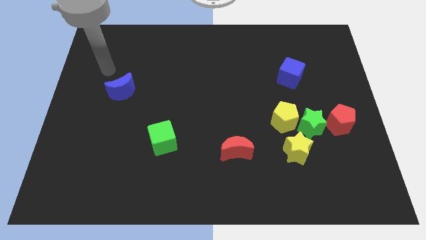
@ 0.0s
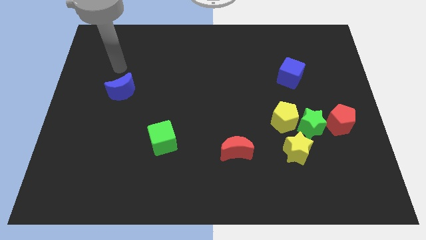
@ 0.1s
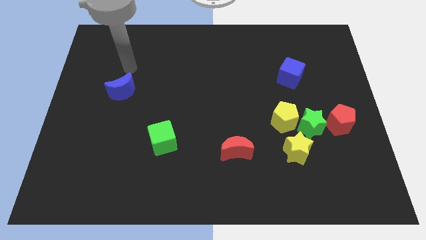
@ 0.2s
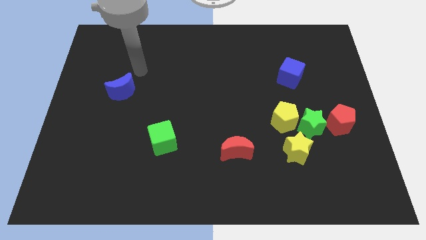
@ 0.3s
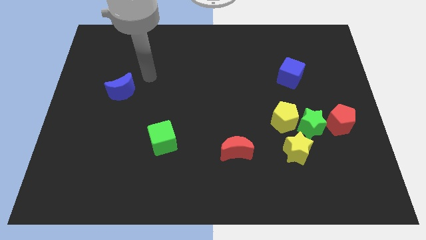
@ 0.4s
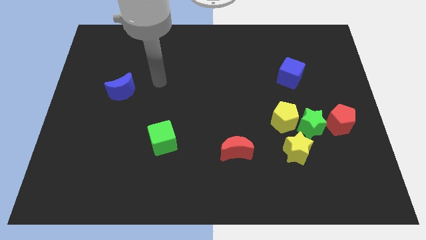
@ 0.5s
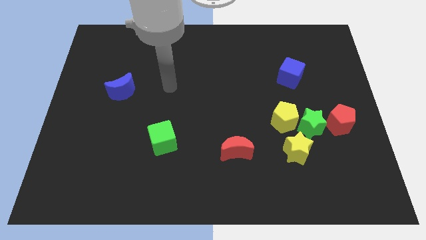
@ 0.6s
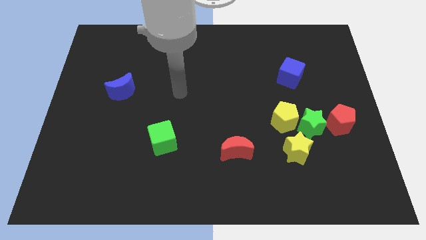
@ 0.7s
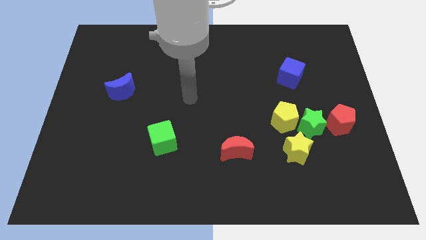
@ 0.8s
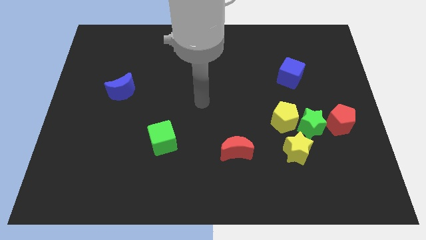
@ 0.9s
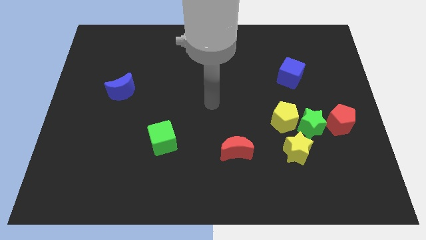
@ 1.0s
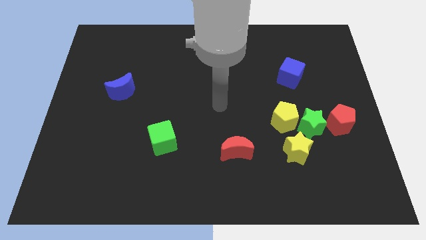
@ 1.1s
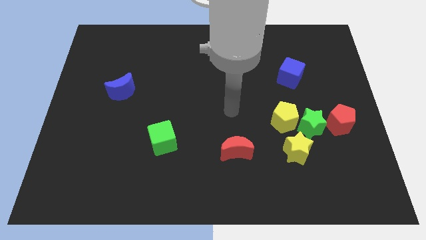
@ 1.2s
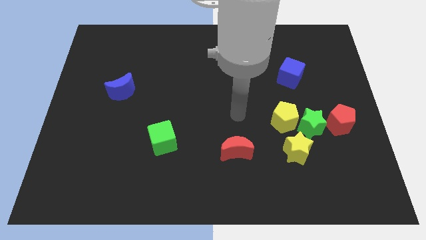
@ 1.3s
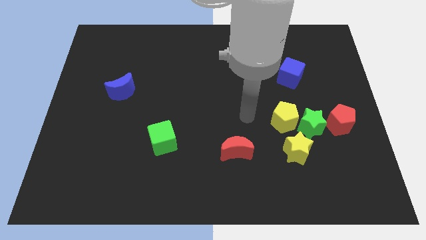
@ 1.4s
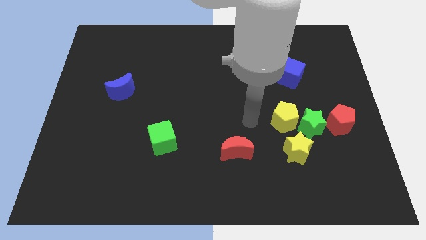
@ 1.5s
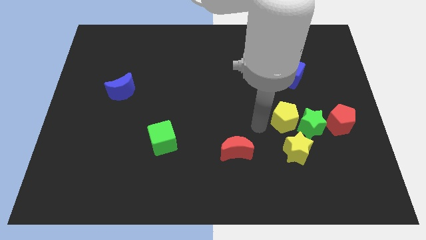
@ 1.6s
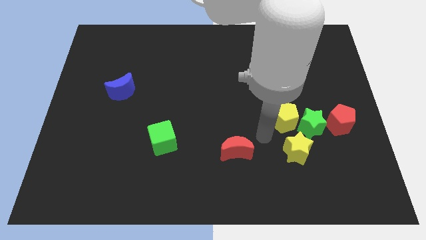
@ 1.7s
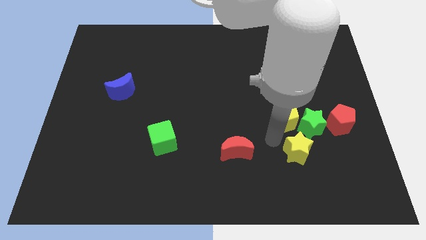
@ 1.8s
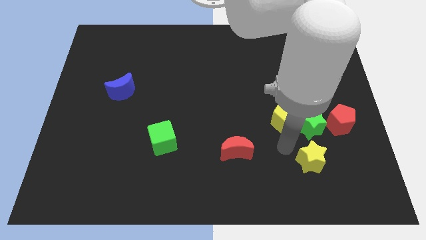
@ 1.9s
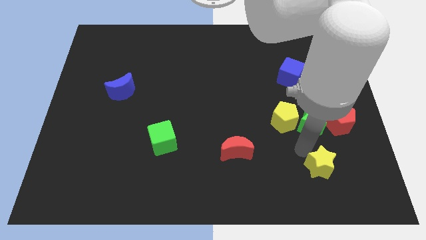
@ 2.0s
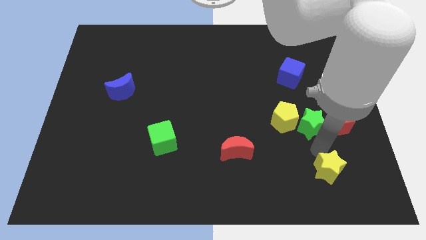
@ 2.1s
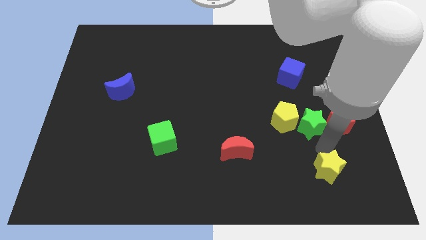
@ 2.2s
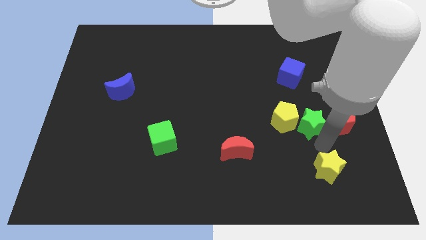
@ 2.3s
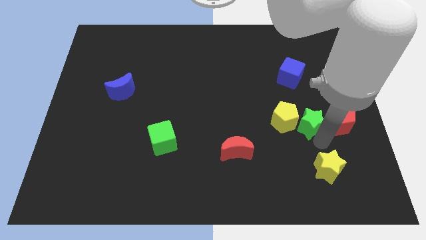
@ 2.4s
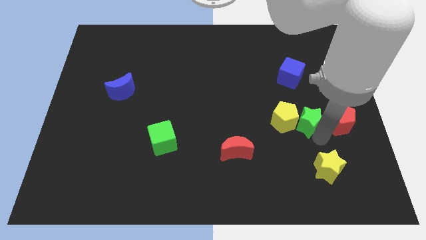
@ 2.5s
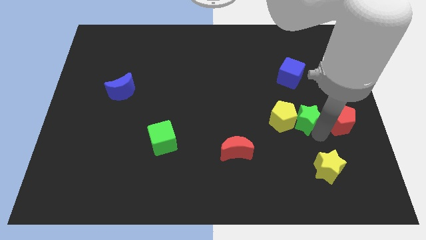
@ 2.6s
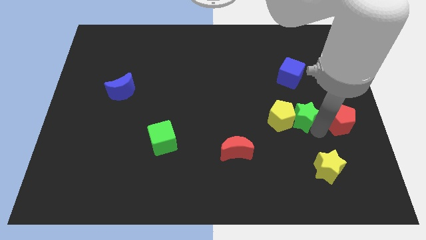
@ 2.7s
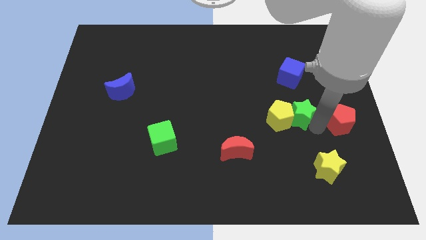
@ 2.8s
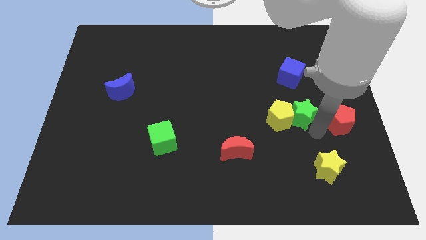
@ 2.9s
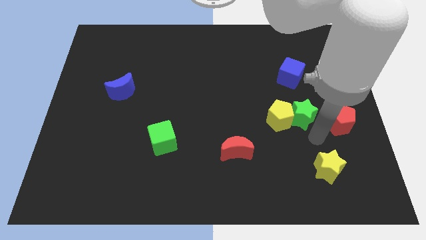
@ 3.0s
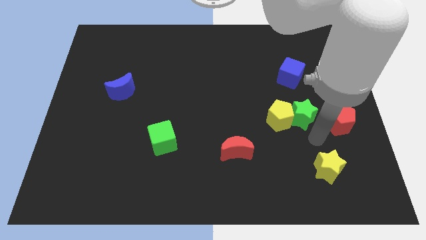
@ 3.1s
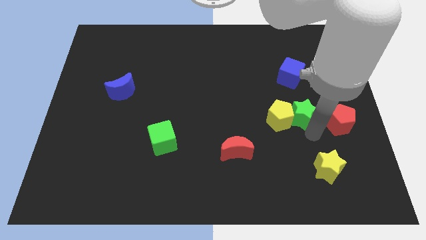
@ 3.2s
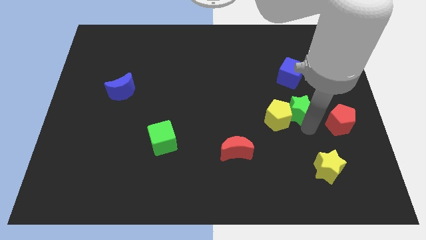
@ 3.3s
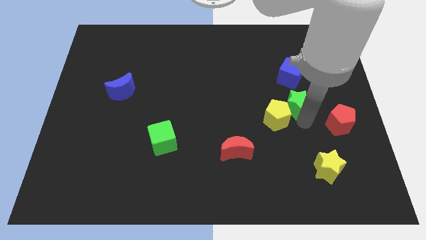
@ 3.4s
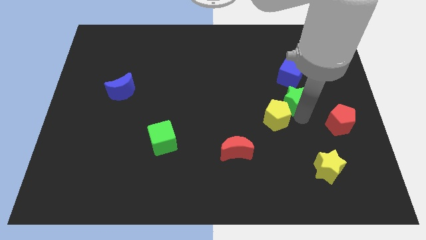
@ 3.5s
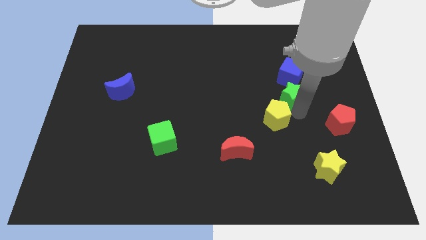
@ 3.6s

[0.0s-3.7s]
move the green star away from the group

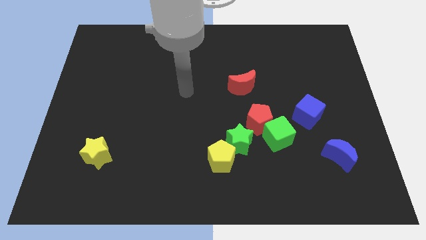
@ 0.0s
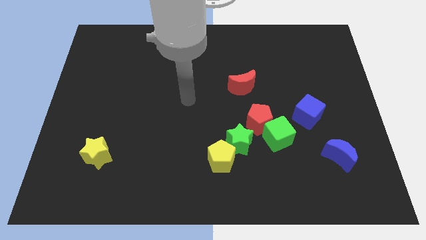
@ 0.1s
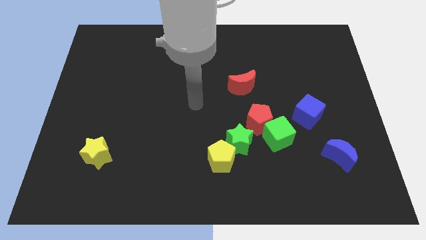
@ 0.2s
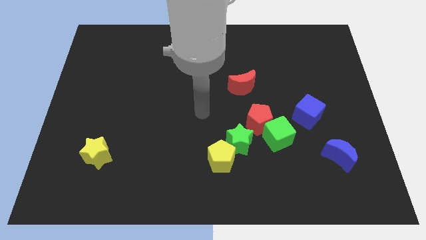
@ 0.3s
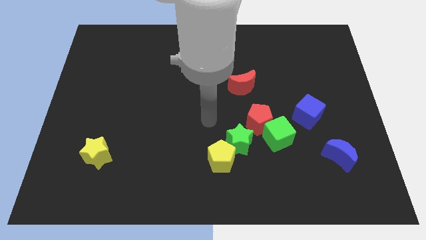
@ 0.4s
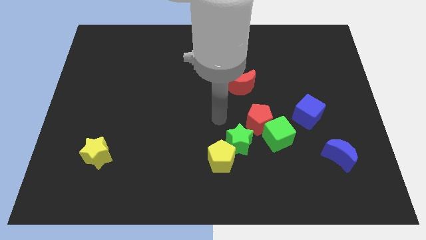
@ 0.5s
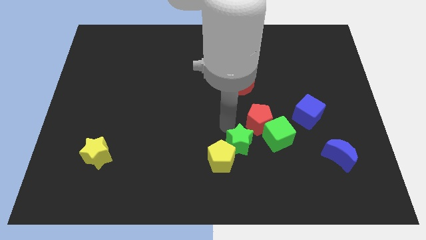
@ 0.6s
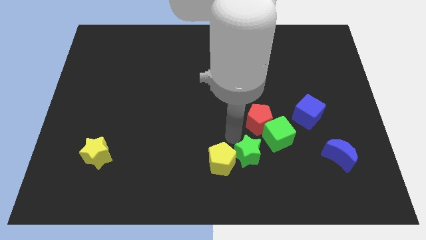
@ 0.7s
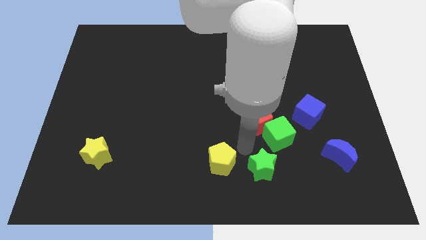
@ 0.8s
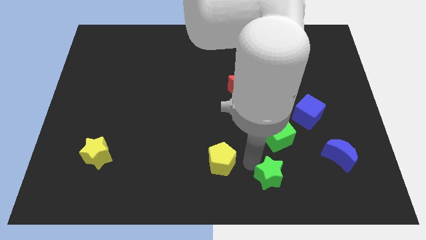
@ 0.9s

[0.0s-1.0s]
pull the yellow pentagon apart from the green star

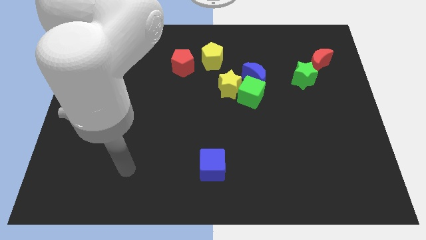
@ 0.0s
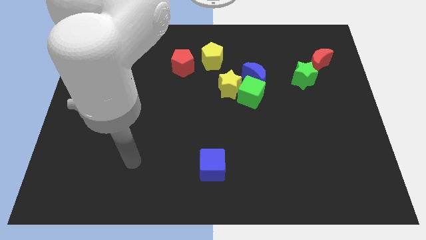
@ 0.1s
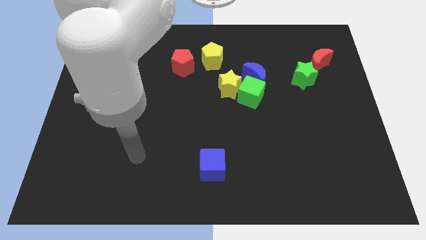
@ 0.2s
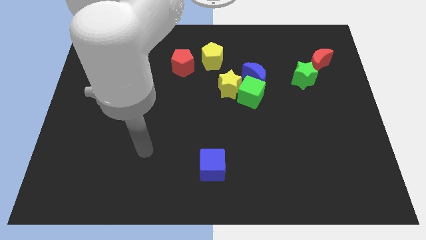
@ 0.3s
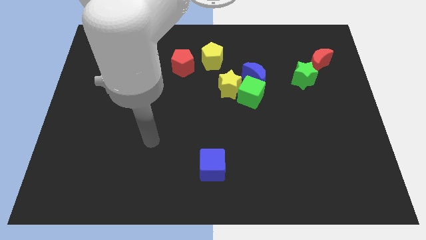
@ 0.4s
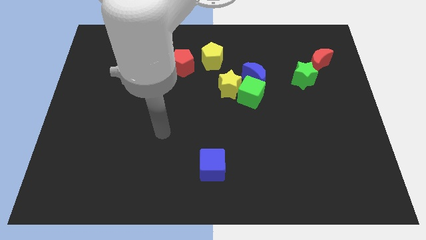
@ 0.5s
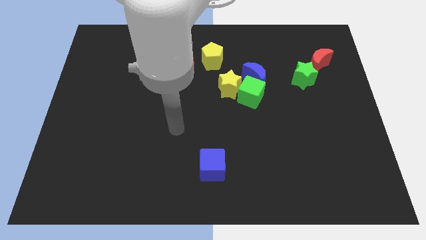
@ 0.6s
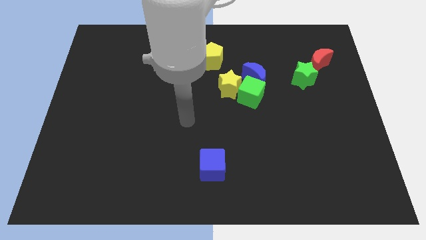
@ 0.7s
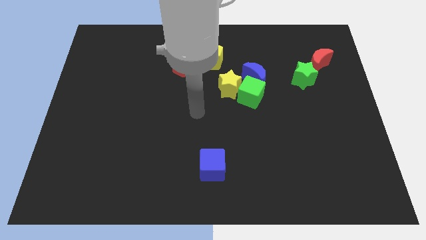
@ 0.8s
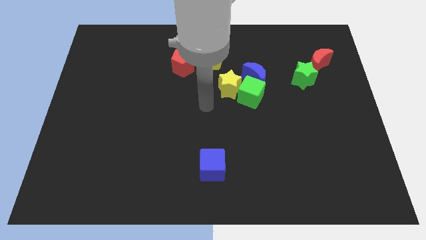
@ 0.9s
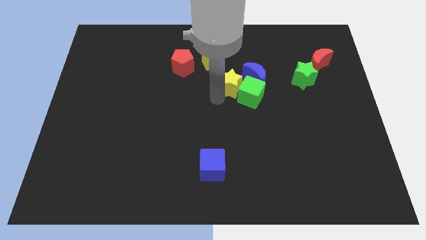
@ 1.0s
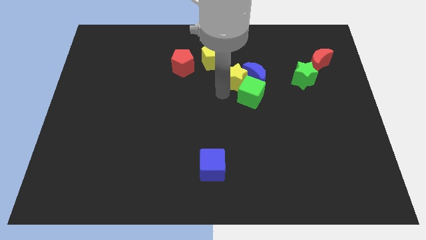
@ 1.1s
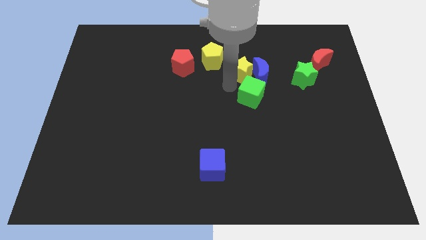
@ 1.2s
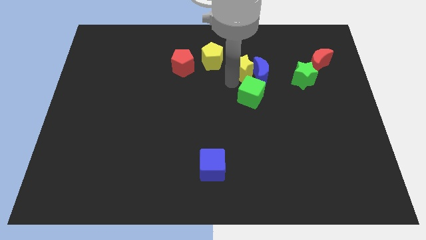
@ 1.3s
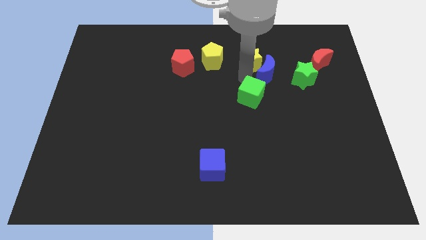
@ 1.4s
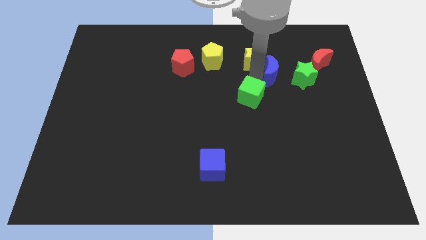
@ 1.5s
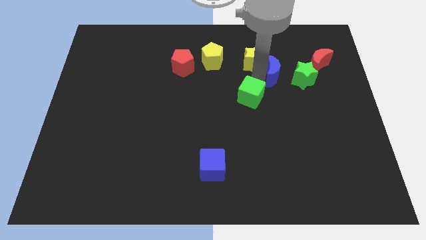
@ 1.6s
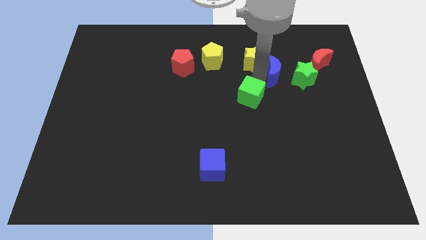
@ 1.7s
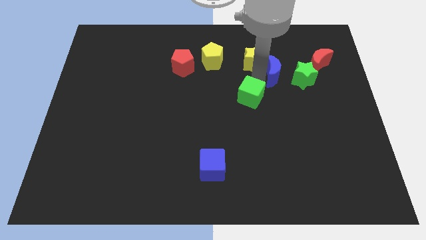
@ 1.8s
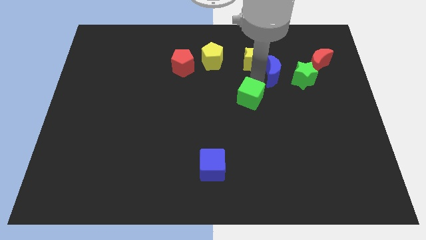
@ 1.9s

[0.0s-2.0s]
pull the green cube apart from the yellow star and blue moon

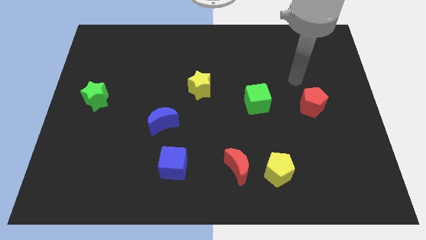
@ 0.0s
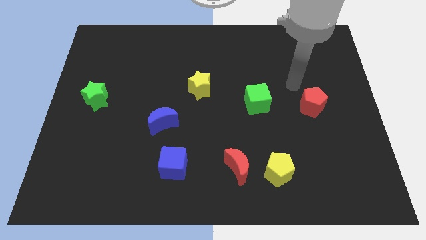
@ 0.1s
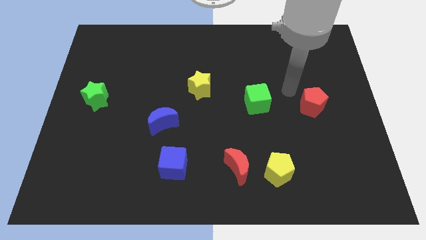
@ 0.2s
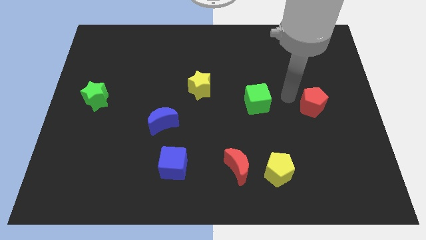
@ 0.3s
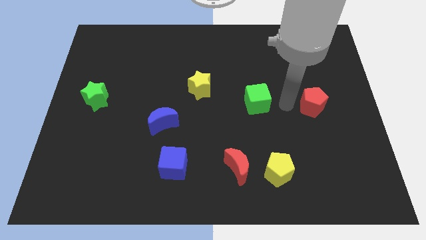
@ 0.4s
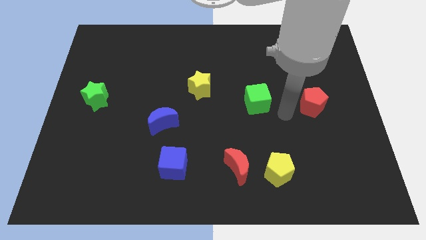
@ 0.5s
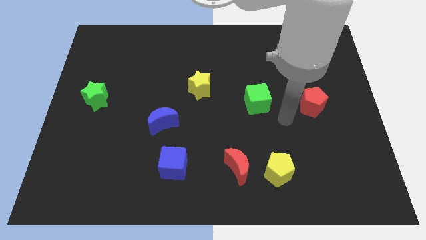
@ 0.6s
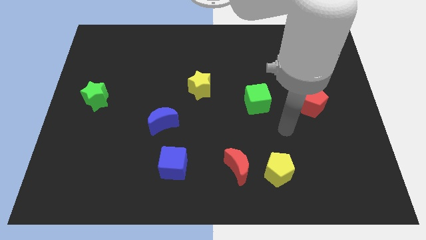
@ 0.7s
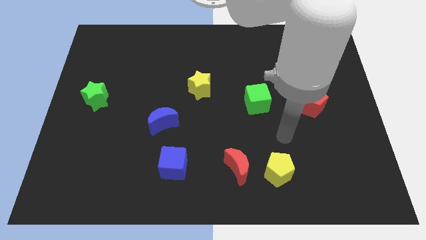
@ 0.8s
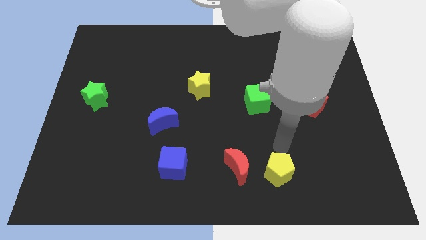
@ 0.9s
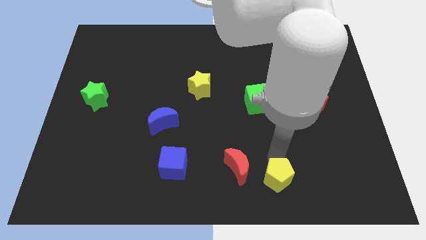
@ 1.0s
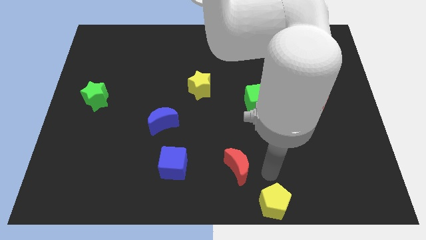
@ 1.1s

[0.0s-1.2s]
pull the red moon apart from the yellow pentagon

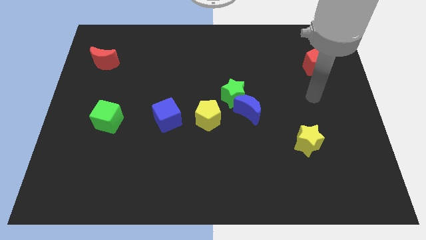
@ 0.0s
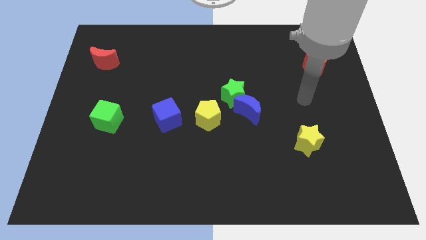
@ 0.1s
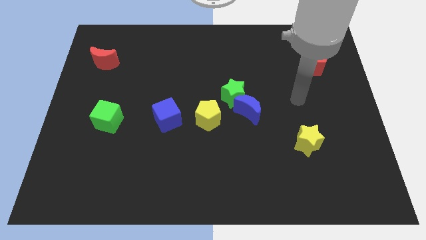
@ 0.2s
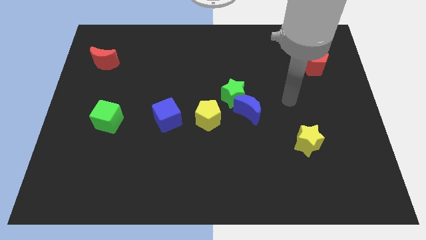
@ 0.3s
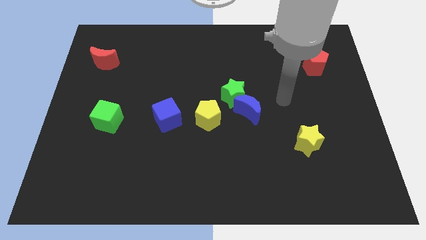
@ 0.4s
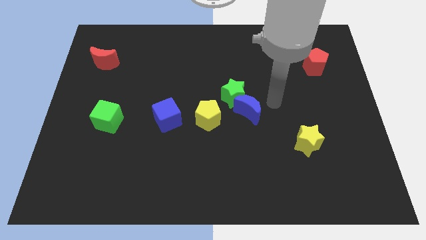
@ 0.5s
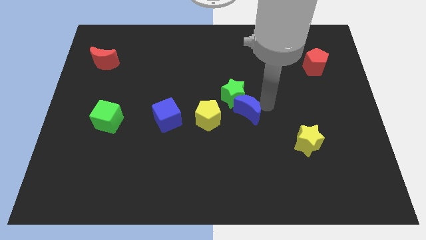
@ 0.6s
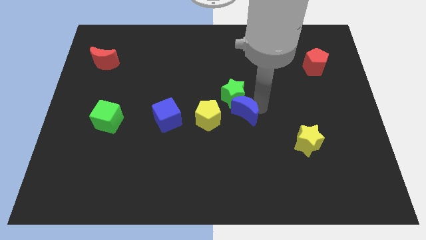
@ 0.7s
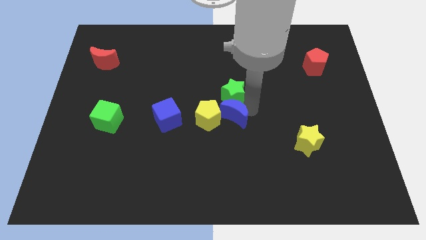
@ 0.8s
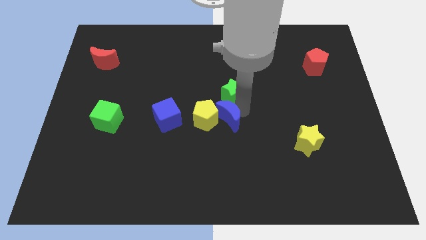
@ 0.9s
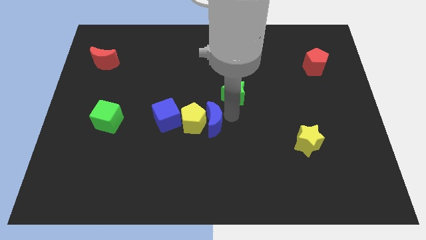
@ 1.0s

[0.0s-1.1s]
move the green star away from the blue moon and yellow pentagon

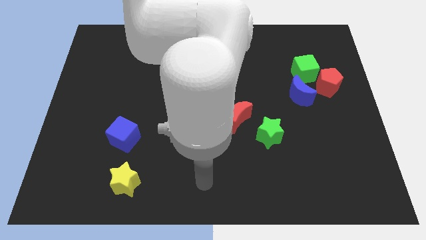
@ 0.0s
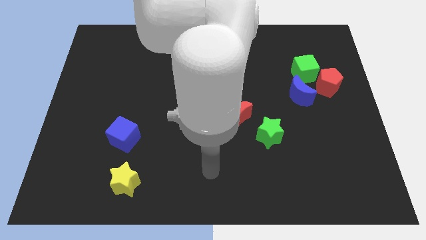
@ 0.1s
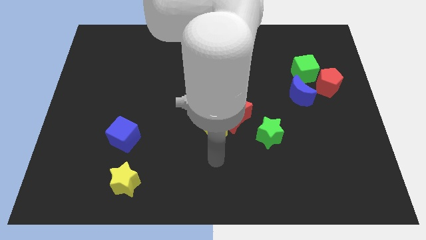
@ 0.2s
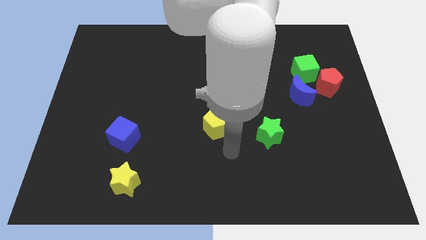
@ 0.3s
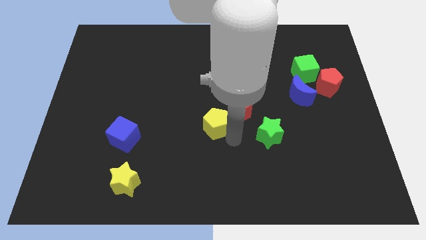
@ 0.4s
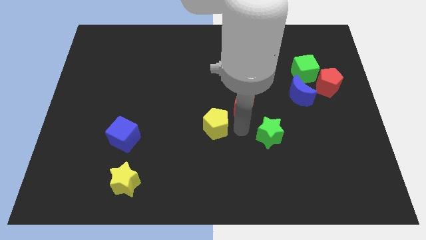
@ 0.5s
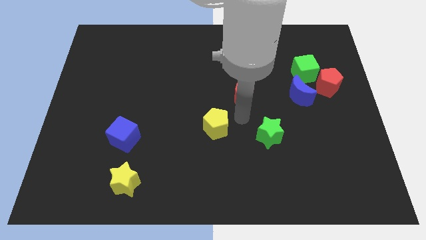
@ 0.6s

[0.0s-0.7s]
move the yellow pentagon away from the red moon
